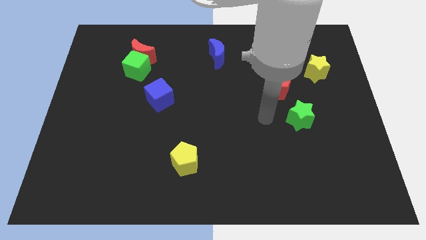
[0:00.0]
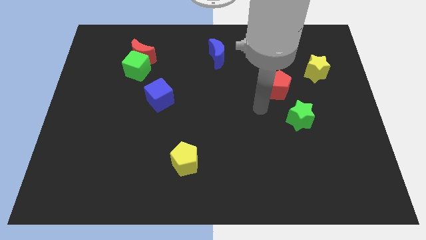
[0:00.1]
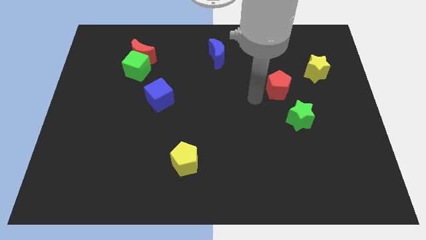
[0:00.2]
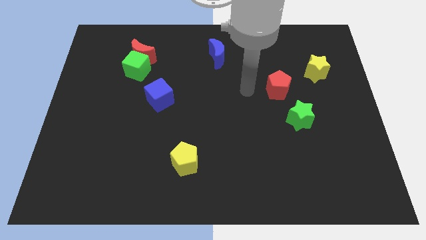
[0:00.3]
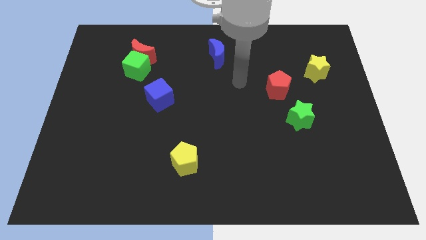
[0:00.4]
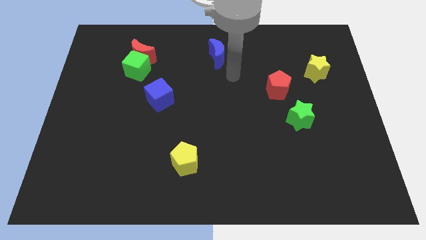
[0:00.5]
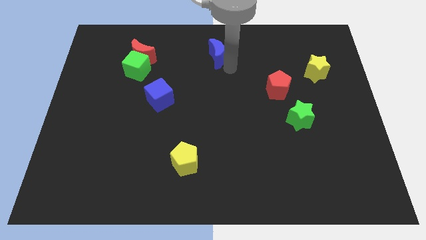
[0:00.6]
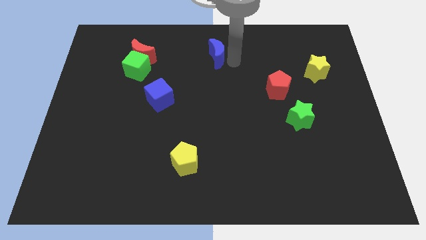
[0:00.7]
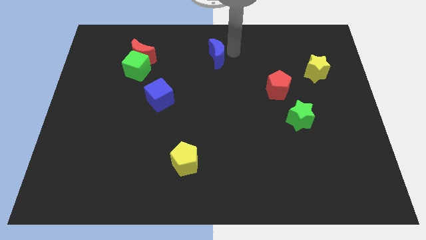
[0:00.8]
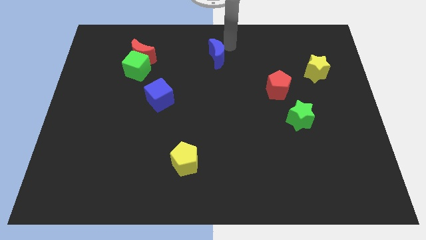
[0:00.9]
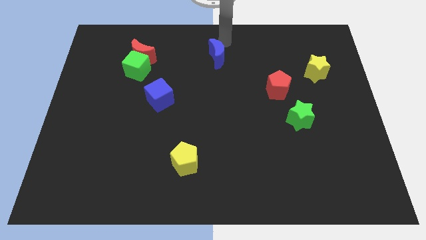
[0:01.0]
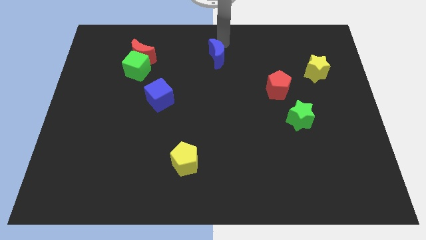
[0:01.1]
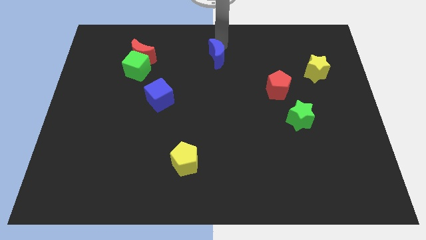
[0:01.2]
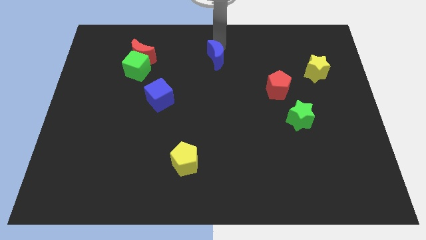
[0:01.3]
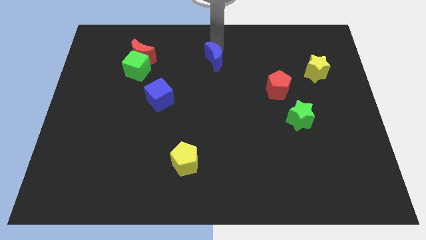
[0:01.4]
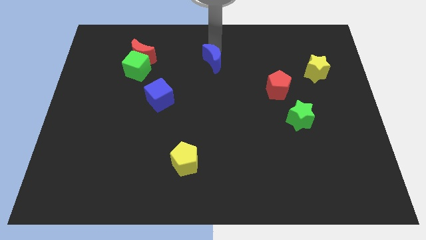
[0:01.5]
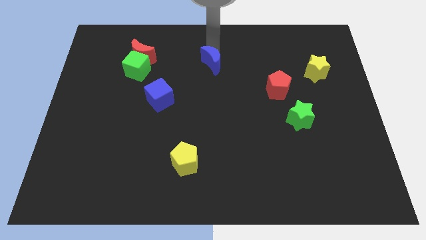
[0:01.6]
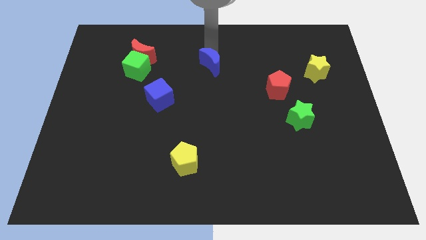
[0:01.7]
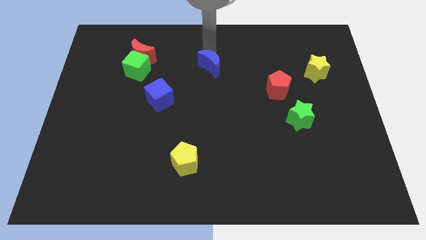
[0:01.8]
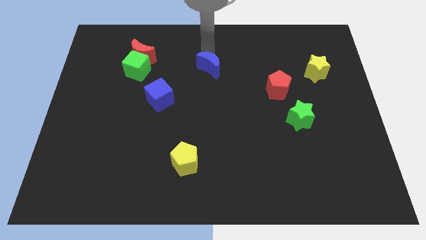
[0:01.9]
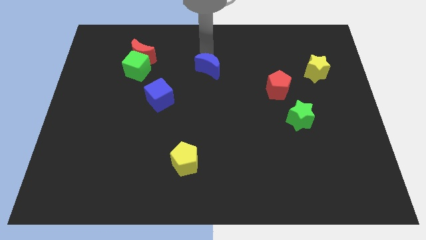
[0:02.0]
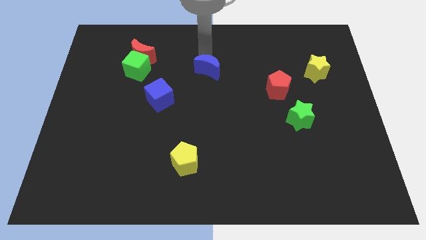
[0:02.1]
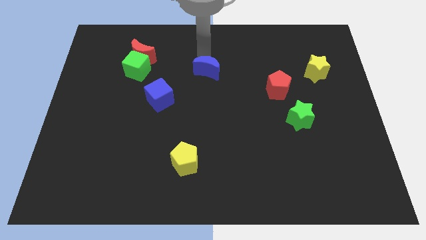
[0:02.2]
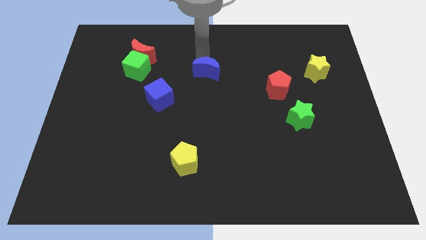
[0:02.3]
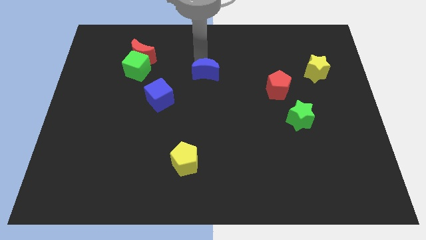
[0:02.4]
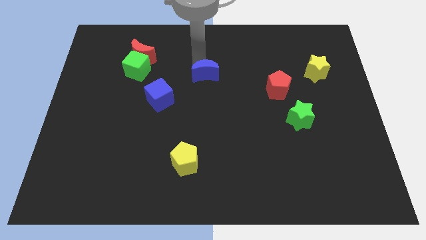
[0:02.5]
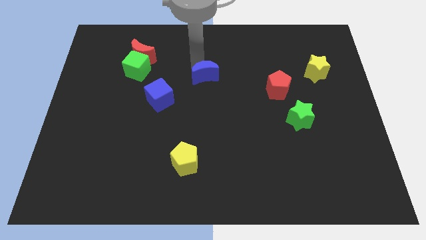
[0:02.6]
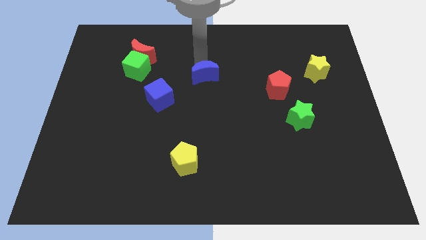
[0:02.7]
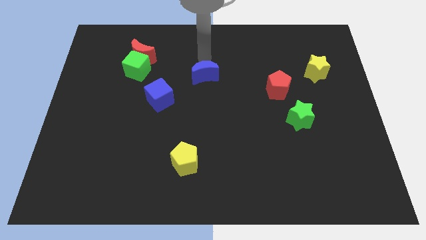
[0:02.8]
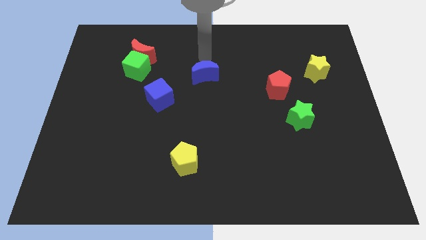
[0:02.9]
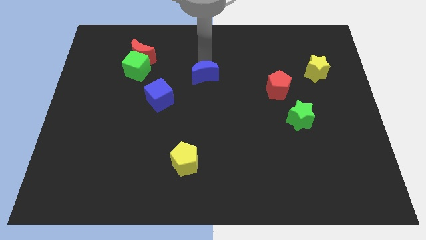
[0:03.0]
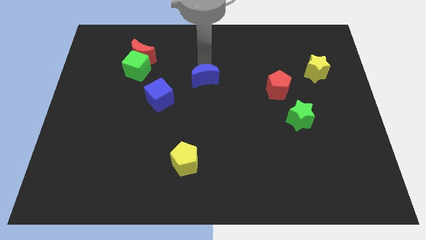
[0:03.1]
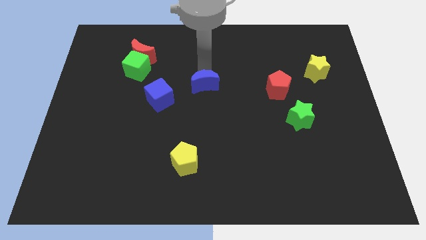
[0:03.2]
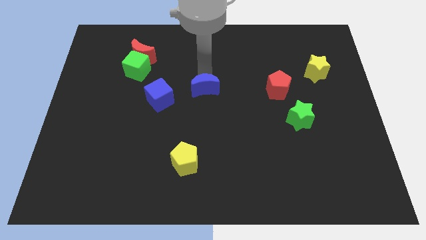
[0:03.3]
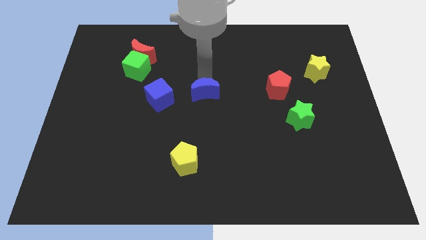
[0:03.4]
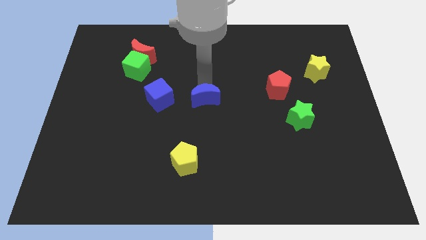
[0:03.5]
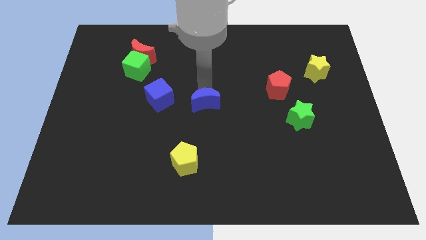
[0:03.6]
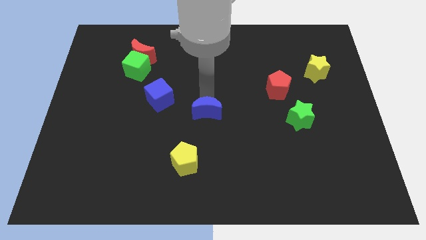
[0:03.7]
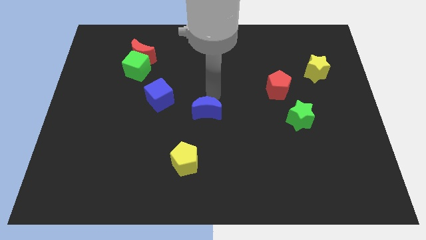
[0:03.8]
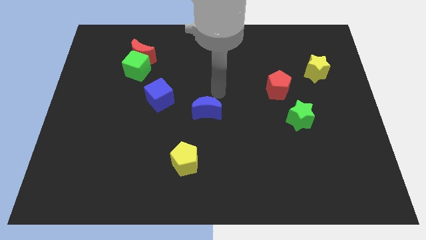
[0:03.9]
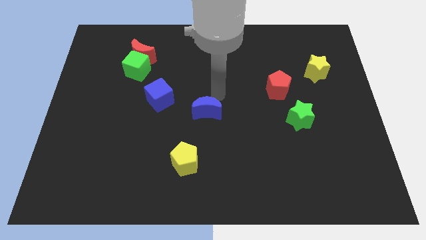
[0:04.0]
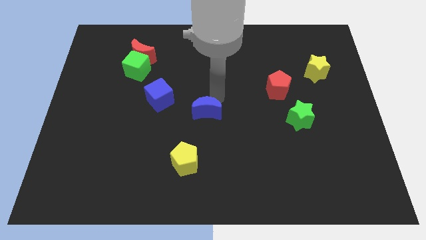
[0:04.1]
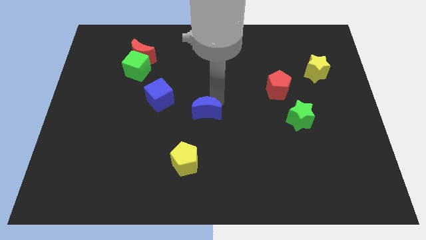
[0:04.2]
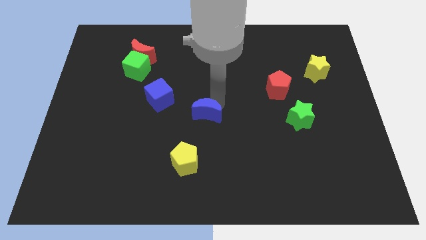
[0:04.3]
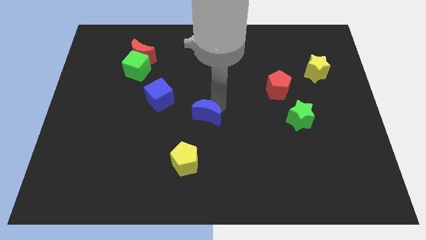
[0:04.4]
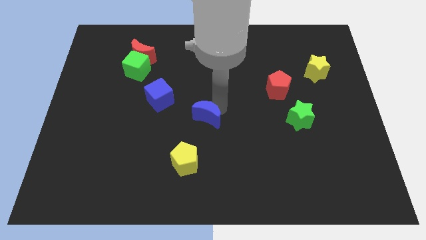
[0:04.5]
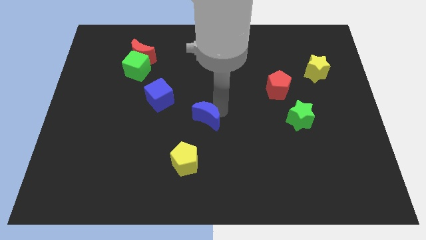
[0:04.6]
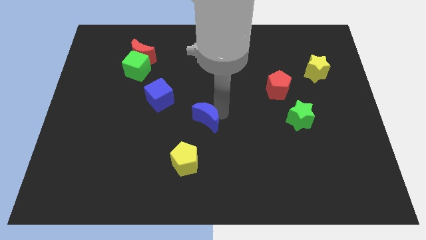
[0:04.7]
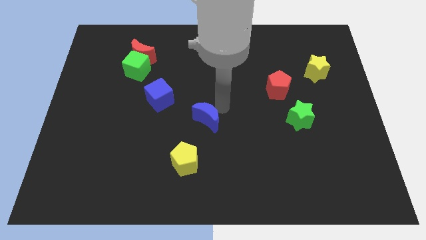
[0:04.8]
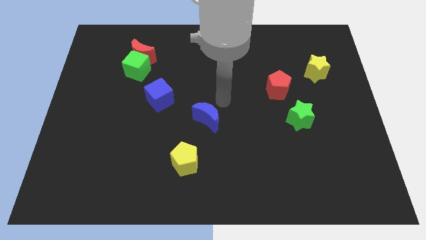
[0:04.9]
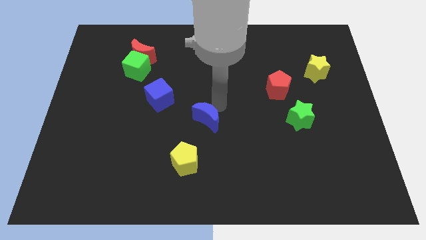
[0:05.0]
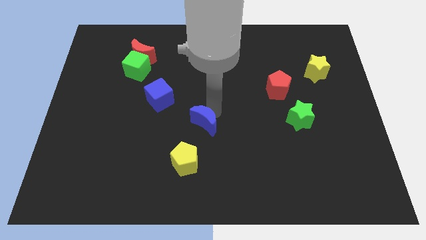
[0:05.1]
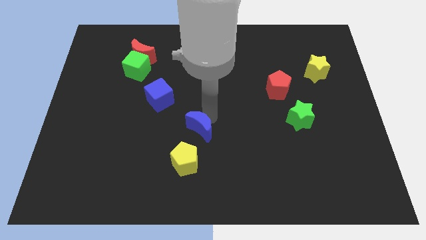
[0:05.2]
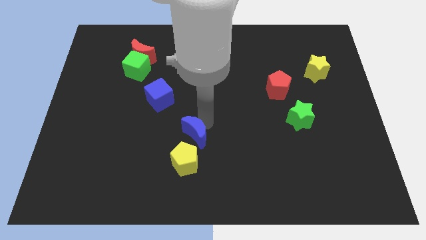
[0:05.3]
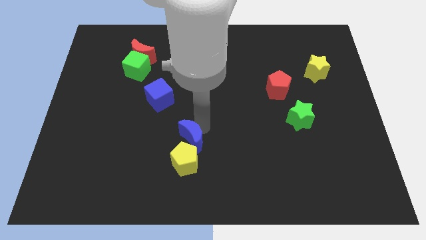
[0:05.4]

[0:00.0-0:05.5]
slide the blue moon to the yellow pentagon

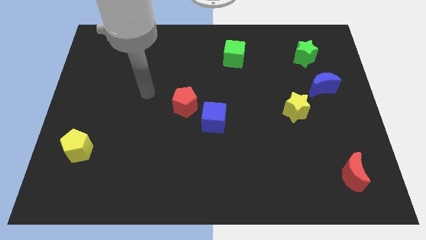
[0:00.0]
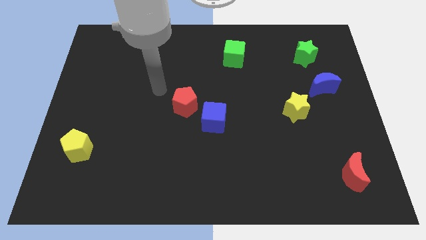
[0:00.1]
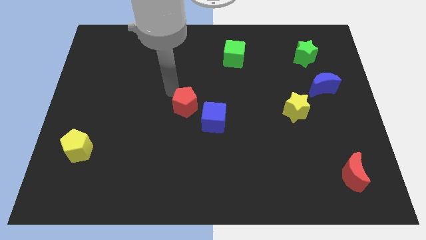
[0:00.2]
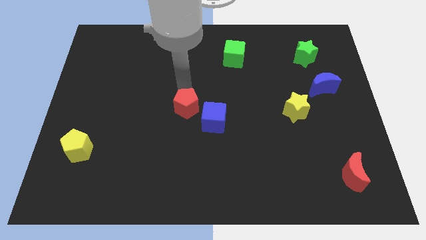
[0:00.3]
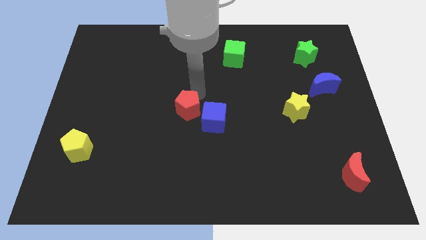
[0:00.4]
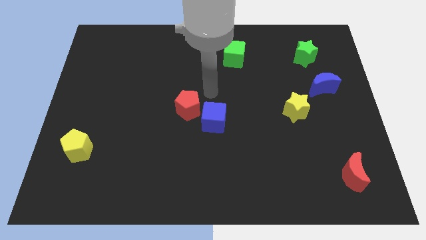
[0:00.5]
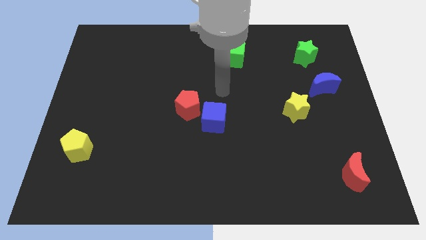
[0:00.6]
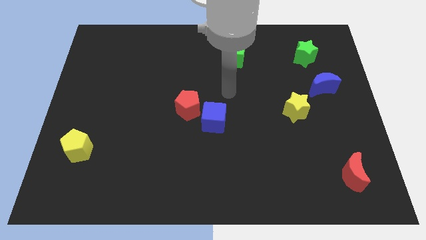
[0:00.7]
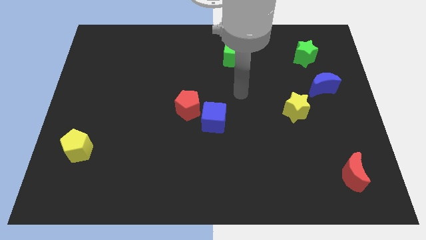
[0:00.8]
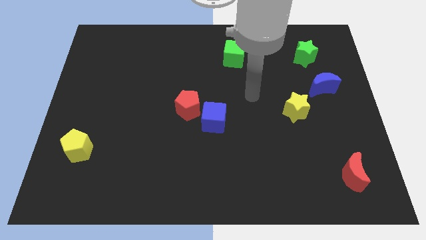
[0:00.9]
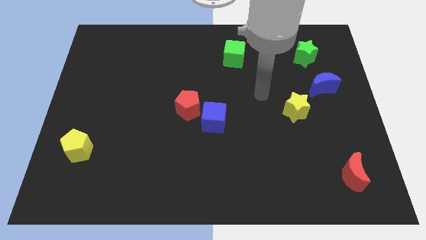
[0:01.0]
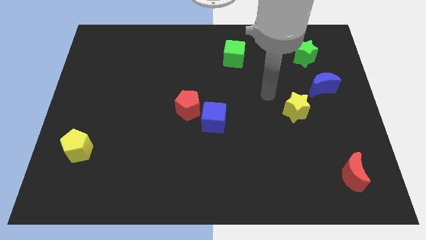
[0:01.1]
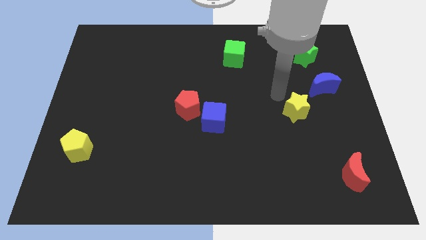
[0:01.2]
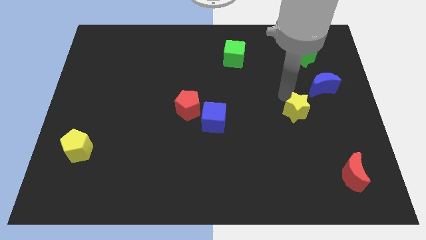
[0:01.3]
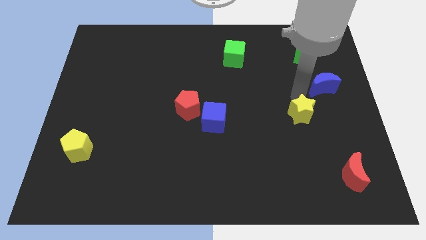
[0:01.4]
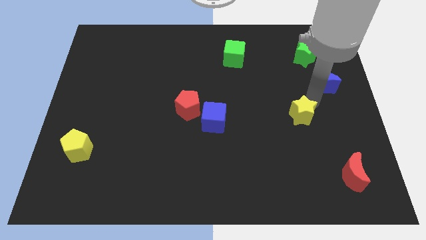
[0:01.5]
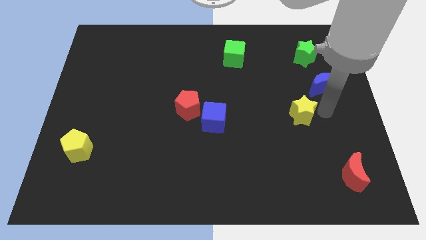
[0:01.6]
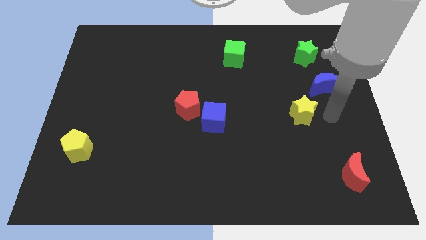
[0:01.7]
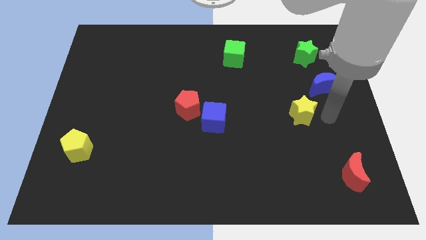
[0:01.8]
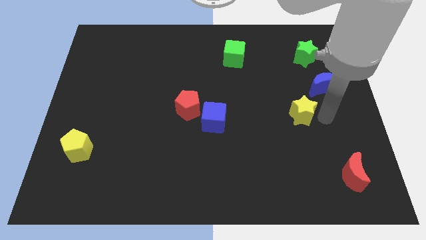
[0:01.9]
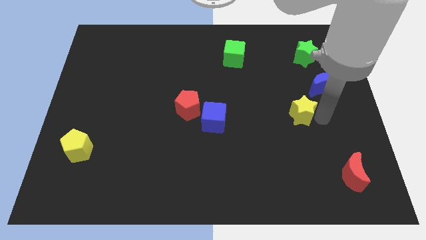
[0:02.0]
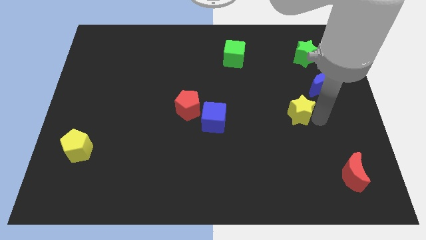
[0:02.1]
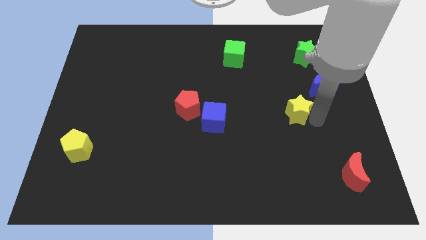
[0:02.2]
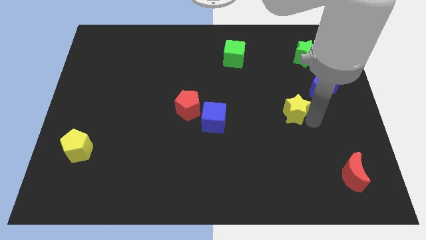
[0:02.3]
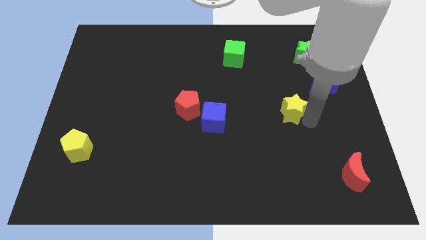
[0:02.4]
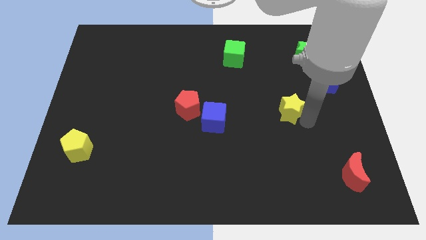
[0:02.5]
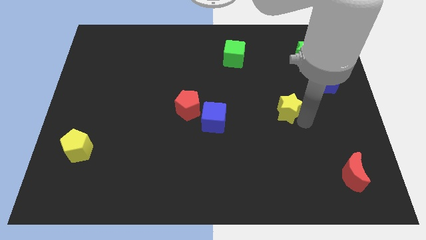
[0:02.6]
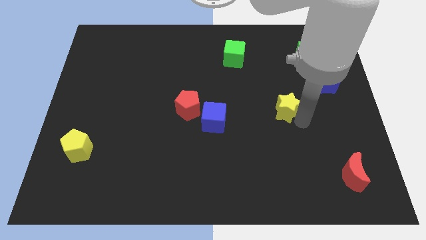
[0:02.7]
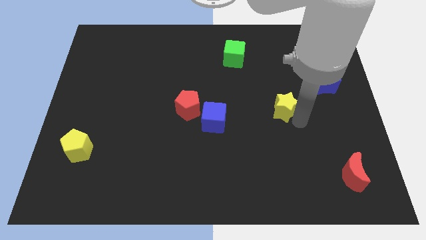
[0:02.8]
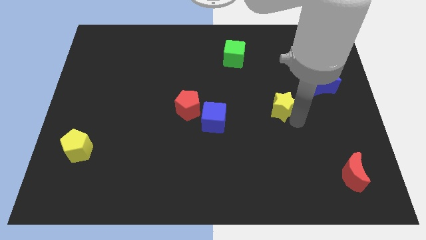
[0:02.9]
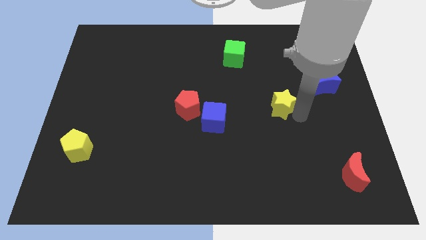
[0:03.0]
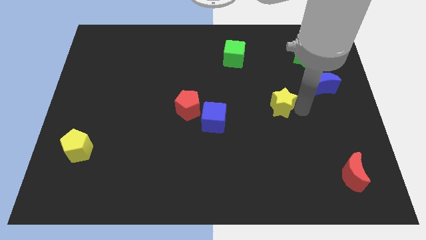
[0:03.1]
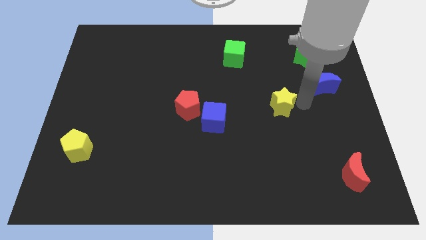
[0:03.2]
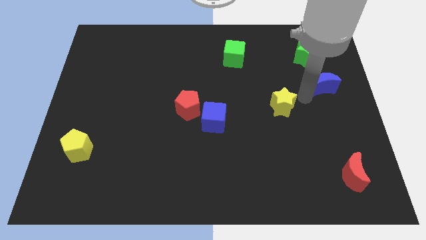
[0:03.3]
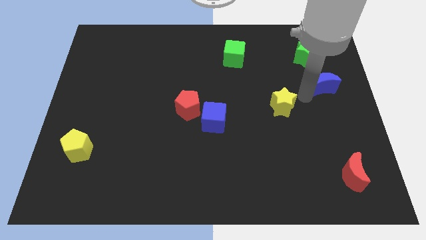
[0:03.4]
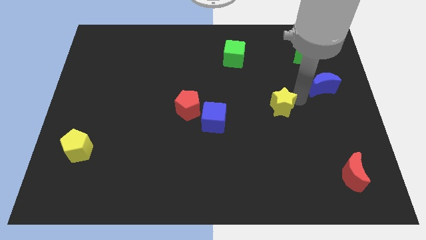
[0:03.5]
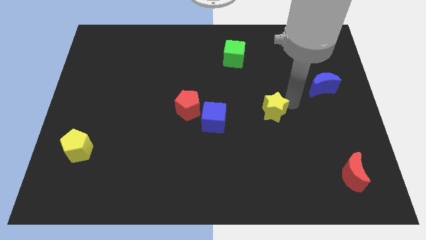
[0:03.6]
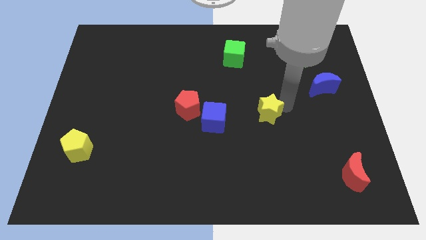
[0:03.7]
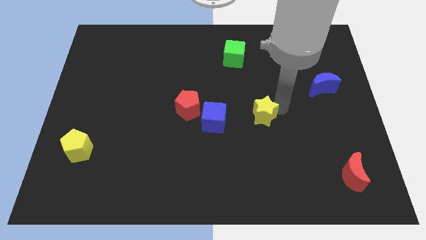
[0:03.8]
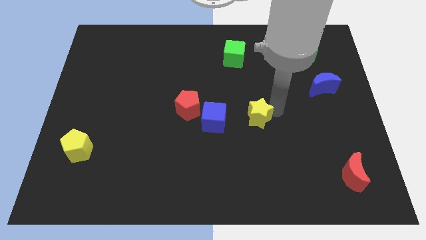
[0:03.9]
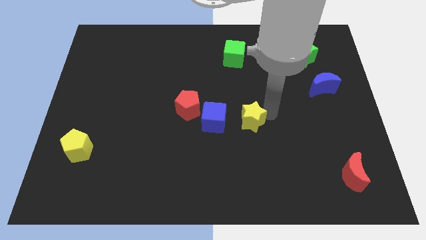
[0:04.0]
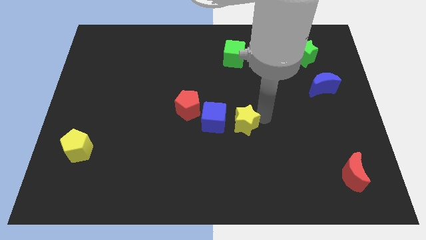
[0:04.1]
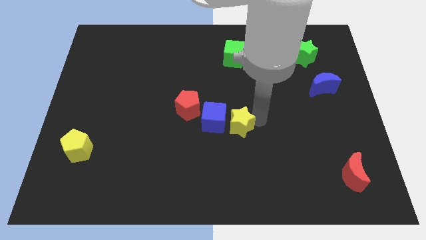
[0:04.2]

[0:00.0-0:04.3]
move the yellow star towards the blue cube
